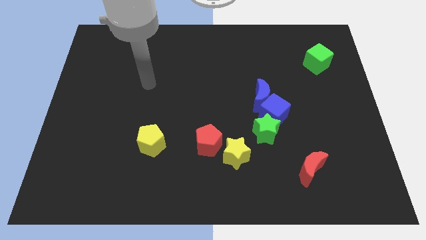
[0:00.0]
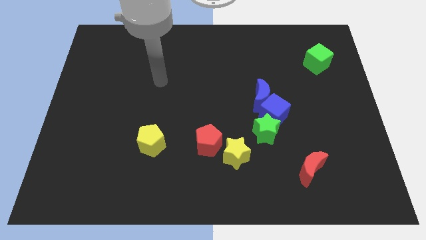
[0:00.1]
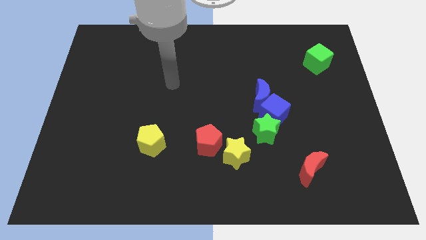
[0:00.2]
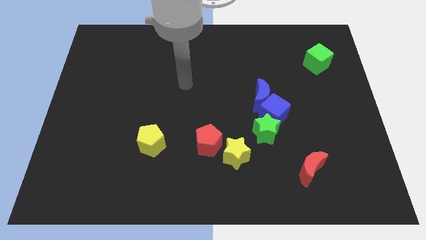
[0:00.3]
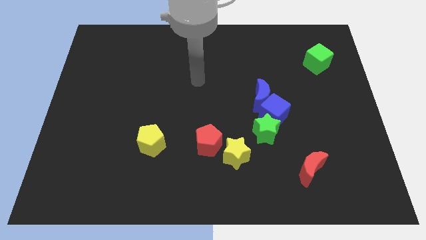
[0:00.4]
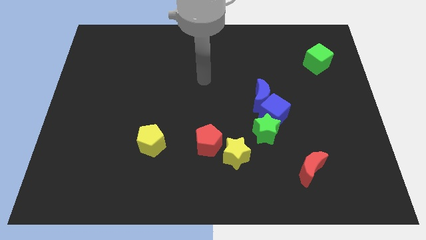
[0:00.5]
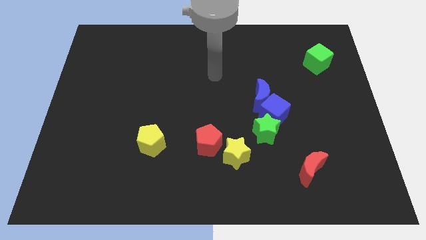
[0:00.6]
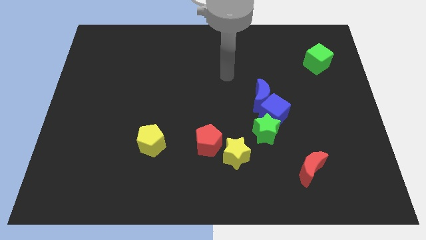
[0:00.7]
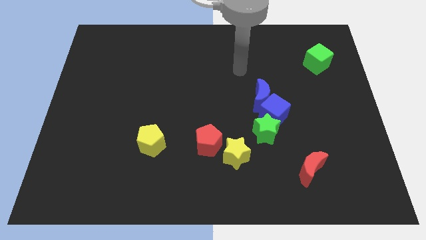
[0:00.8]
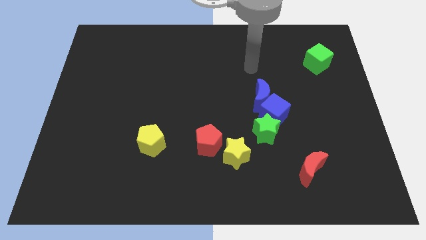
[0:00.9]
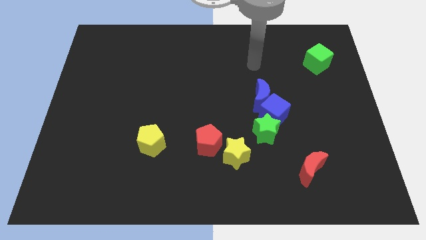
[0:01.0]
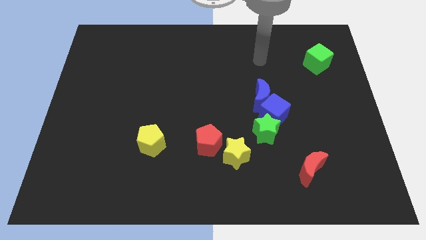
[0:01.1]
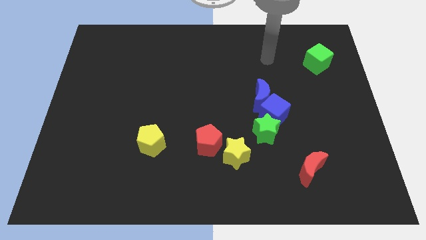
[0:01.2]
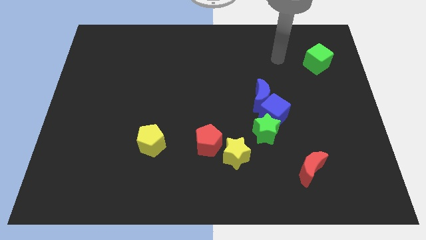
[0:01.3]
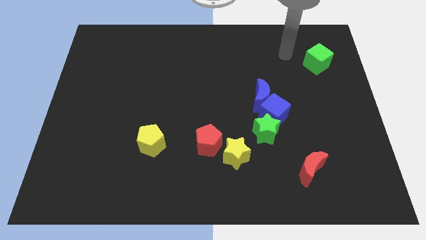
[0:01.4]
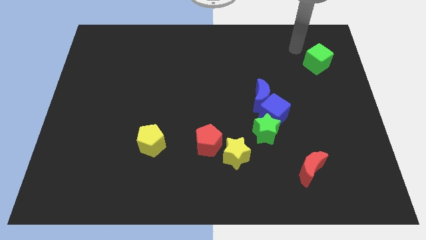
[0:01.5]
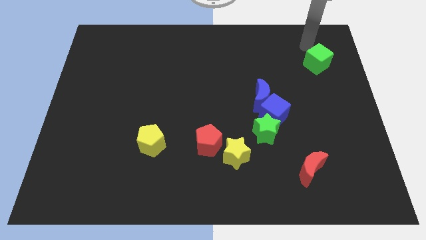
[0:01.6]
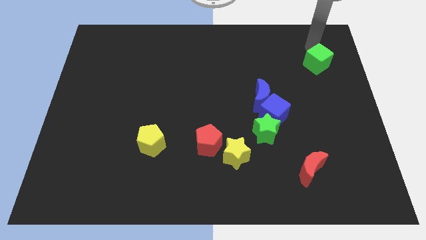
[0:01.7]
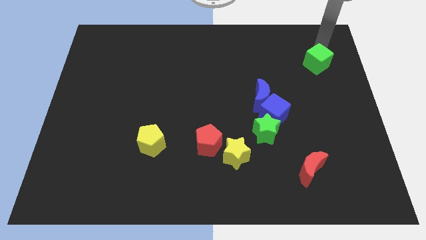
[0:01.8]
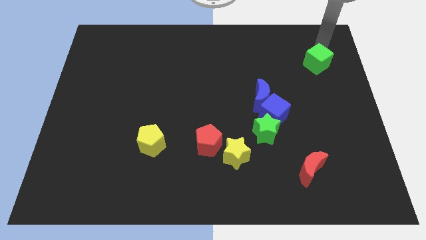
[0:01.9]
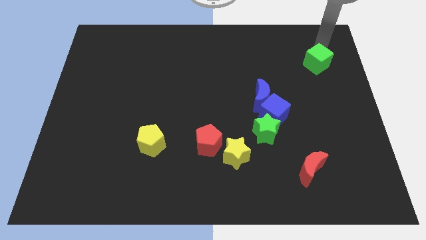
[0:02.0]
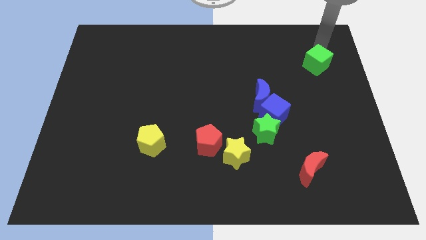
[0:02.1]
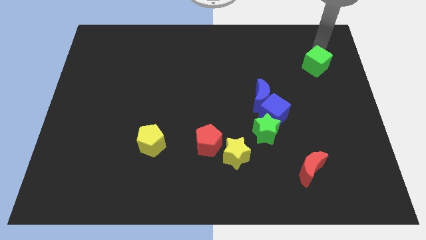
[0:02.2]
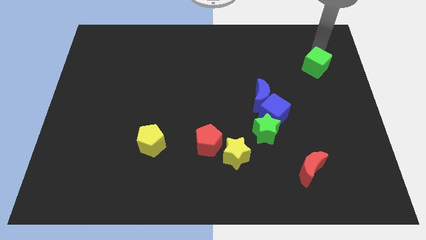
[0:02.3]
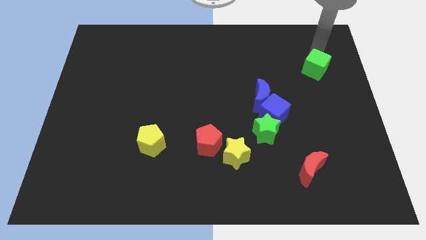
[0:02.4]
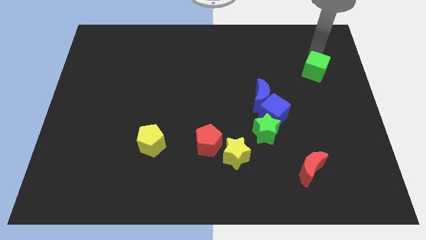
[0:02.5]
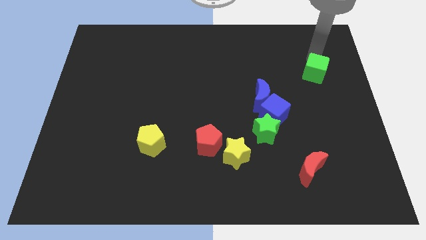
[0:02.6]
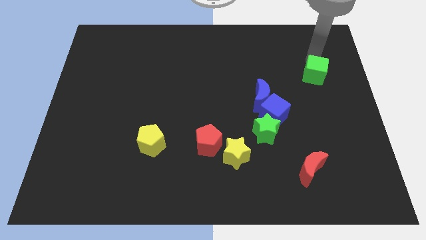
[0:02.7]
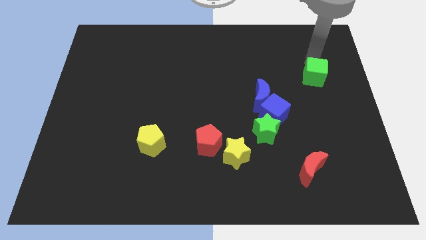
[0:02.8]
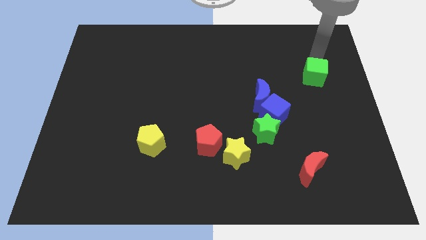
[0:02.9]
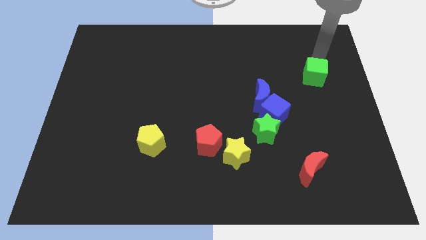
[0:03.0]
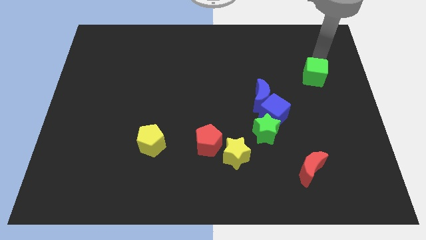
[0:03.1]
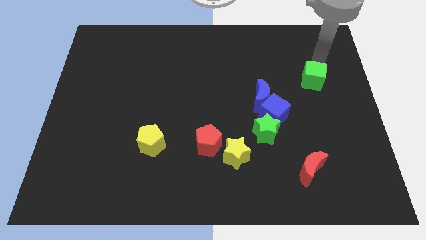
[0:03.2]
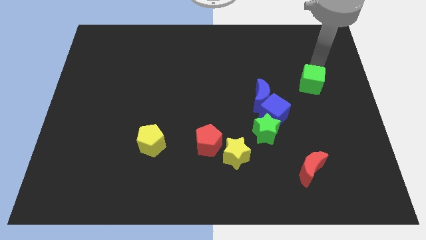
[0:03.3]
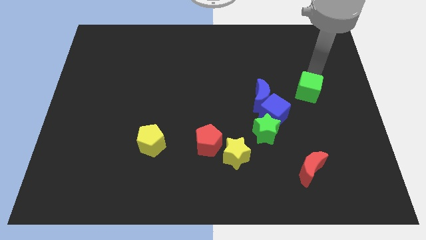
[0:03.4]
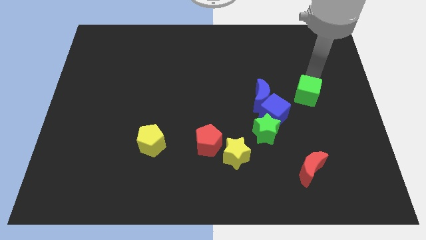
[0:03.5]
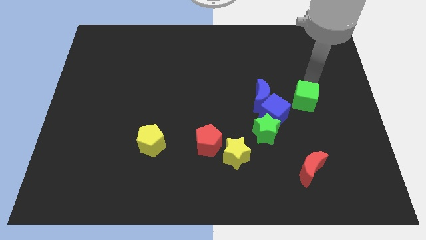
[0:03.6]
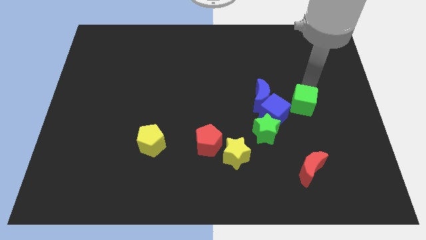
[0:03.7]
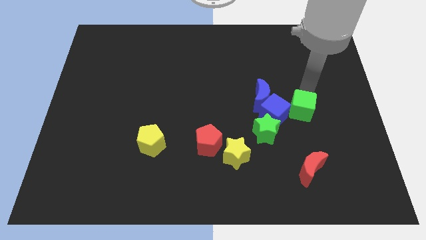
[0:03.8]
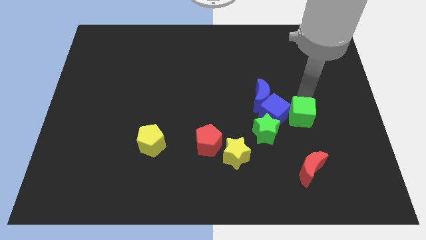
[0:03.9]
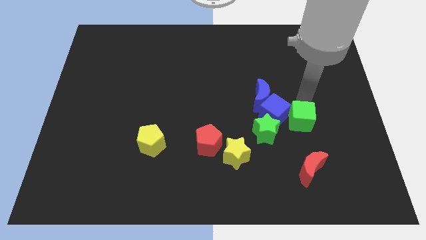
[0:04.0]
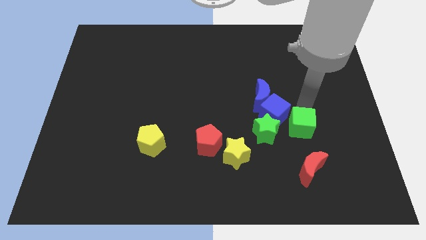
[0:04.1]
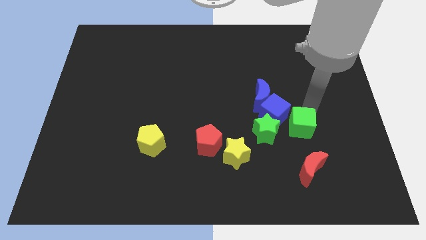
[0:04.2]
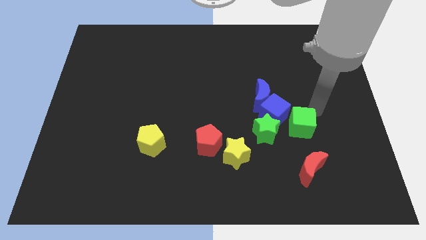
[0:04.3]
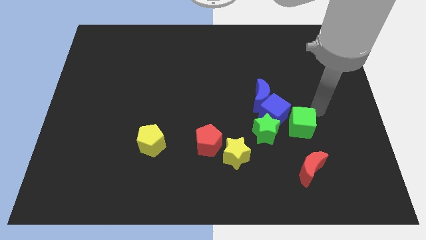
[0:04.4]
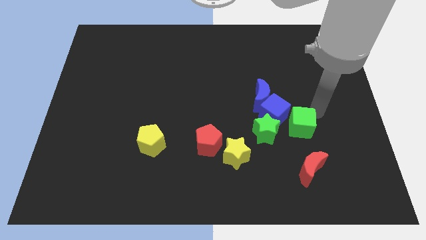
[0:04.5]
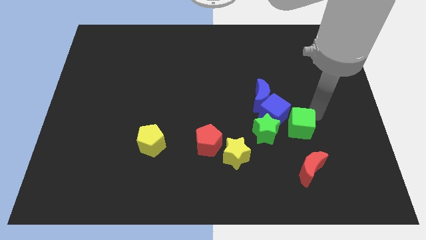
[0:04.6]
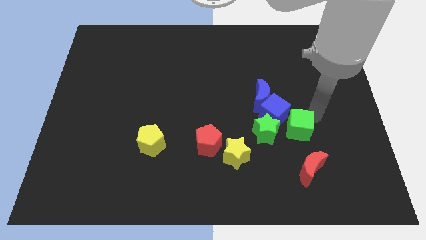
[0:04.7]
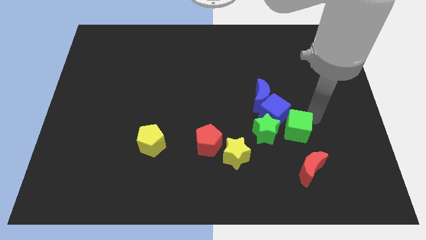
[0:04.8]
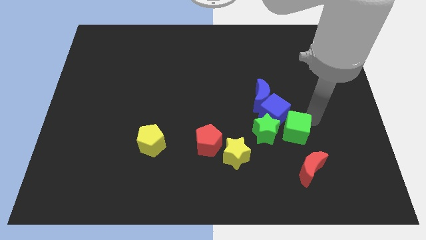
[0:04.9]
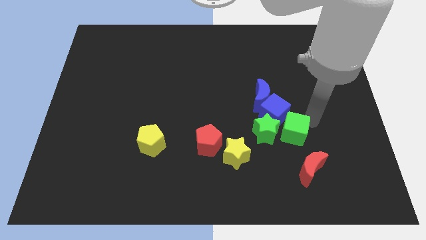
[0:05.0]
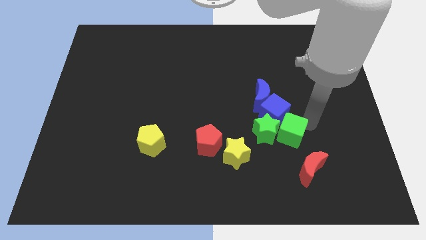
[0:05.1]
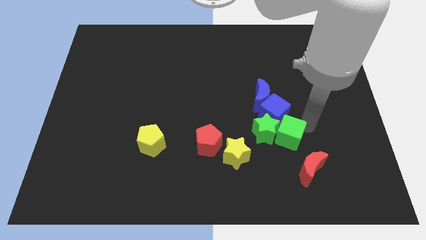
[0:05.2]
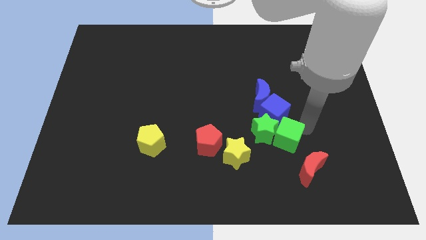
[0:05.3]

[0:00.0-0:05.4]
push the green cube to the bottom of the blue moon

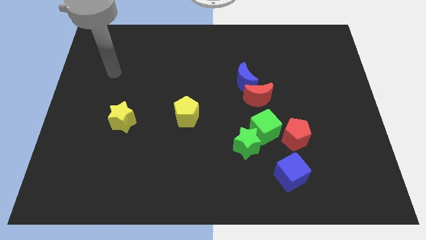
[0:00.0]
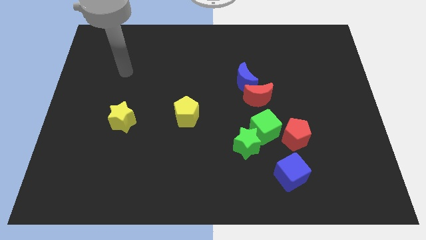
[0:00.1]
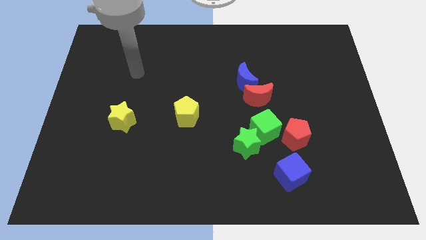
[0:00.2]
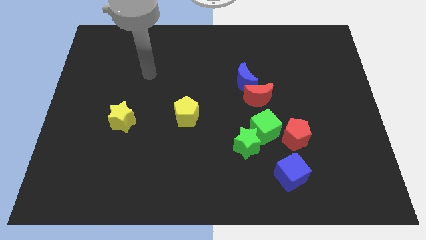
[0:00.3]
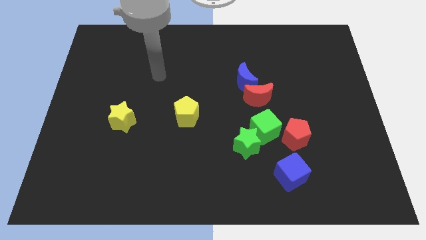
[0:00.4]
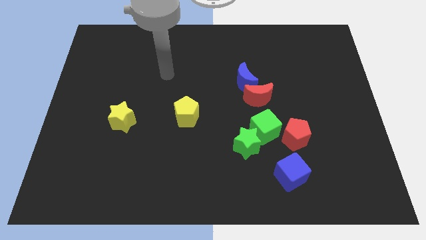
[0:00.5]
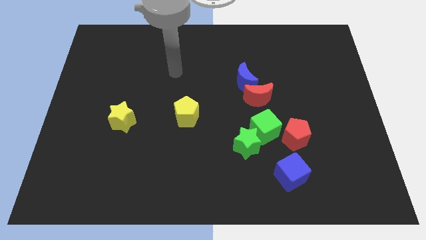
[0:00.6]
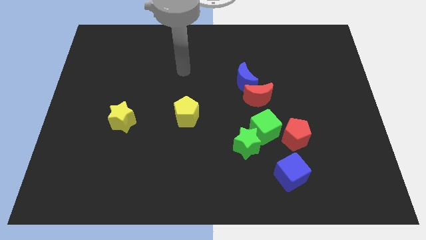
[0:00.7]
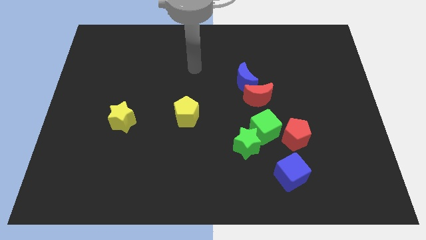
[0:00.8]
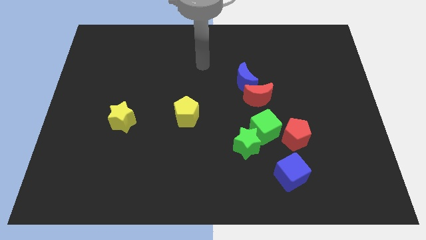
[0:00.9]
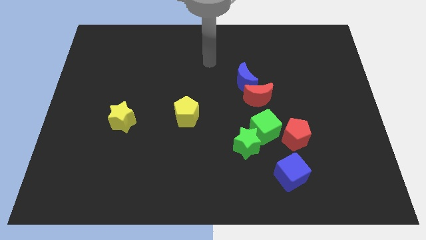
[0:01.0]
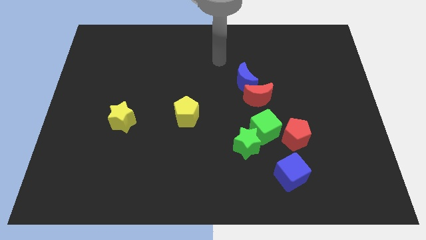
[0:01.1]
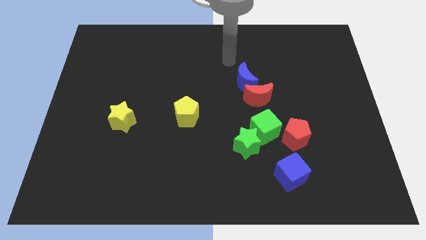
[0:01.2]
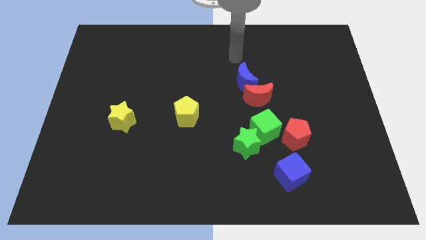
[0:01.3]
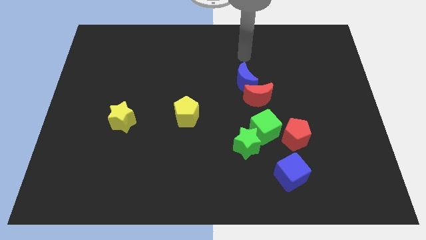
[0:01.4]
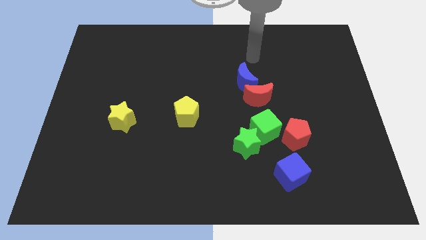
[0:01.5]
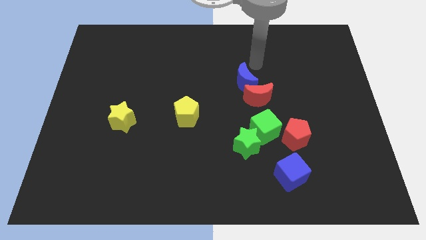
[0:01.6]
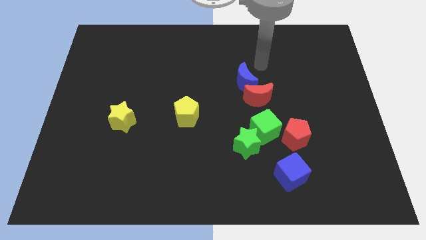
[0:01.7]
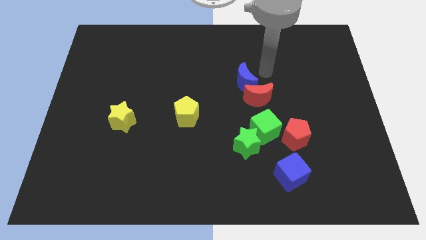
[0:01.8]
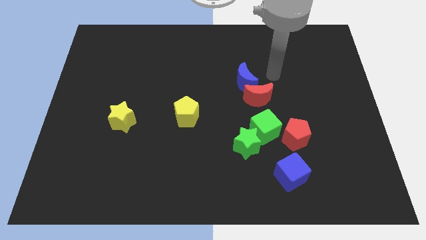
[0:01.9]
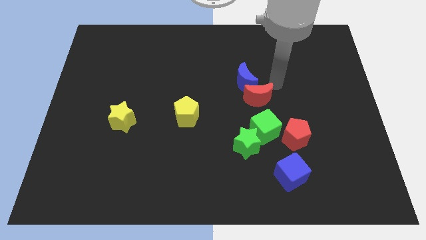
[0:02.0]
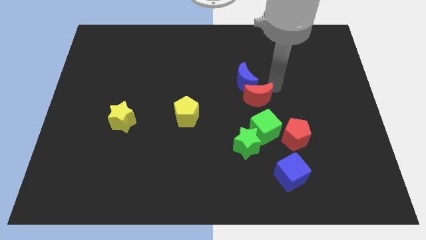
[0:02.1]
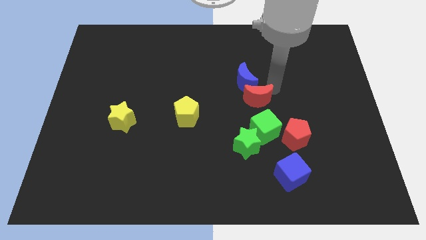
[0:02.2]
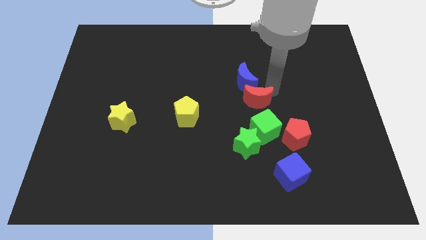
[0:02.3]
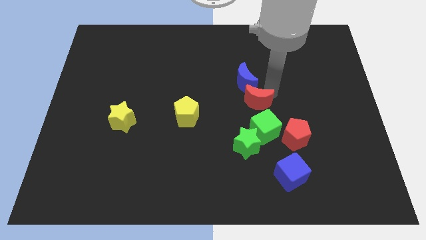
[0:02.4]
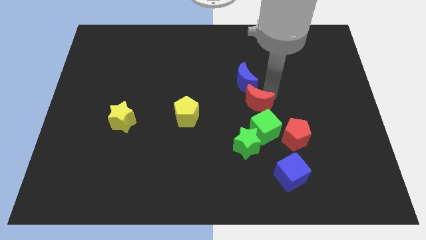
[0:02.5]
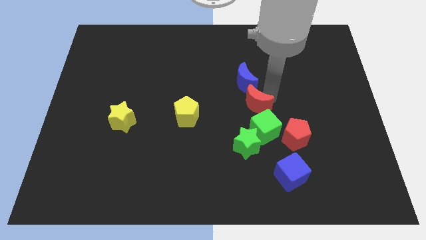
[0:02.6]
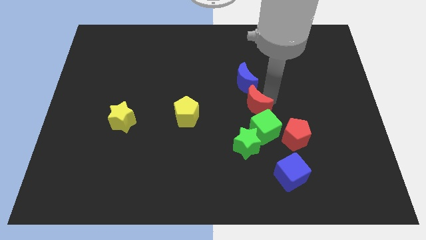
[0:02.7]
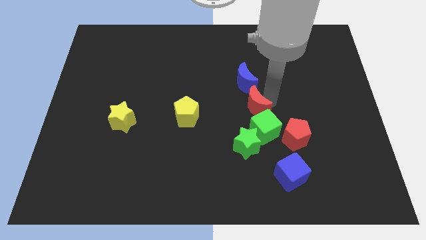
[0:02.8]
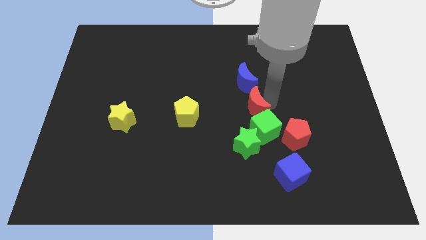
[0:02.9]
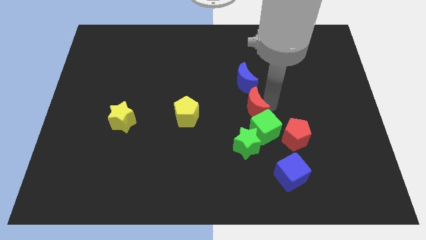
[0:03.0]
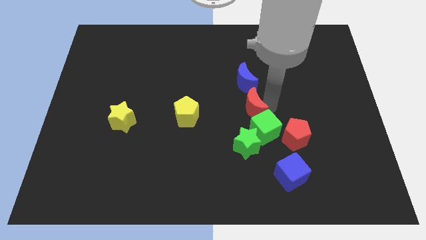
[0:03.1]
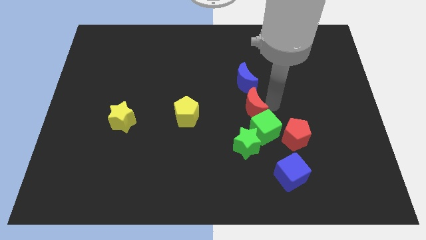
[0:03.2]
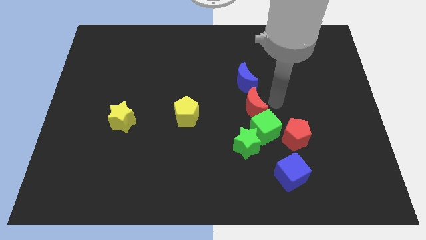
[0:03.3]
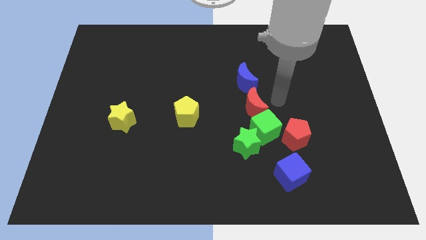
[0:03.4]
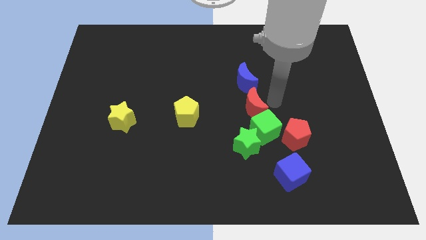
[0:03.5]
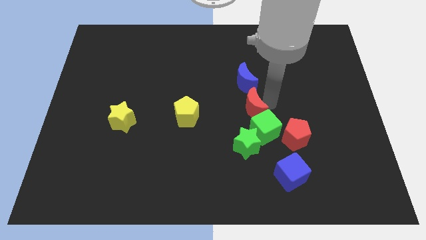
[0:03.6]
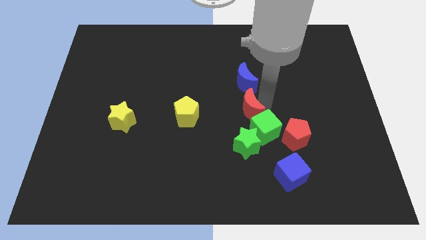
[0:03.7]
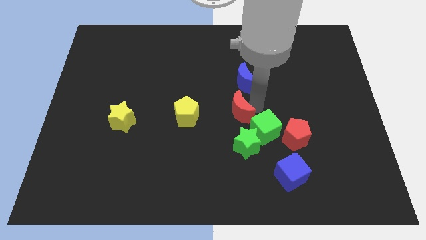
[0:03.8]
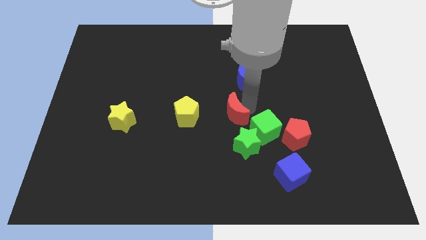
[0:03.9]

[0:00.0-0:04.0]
slide the red moon to the left side of the green cube
